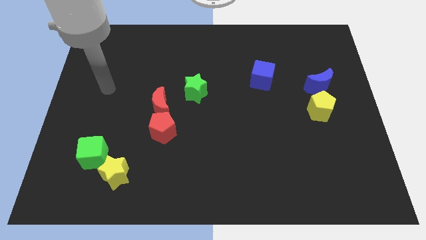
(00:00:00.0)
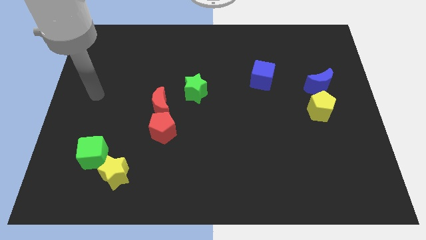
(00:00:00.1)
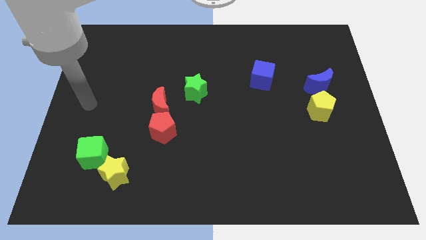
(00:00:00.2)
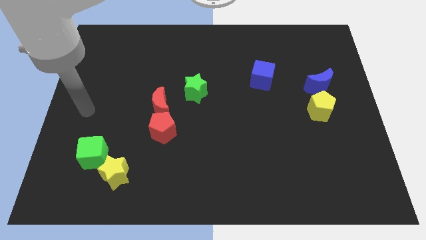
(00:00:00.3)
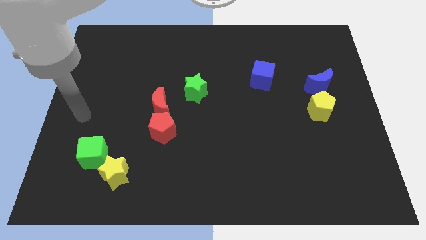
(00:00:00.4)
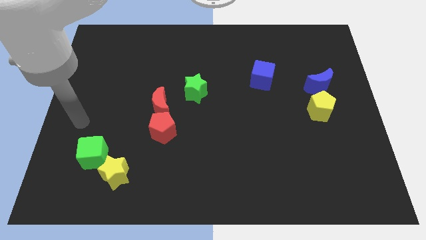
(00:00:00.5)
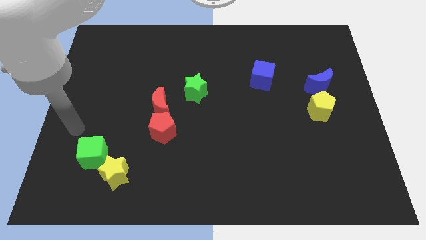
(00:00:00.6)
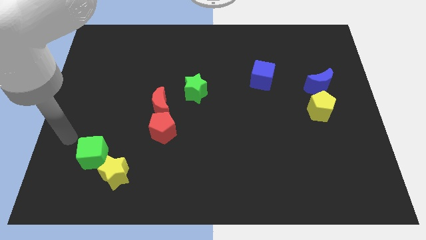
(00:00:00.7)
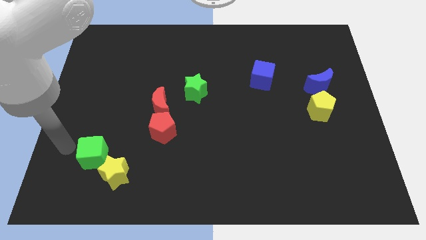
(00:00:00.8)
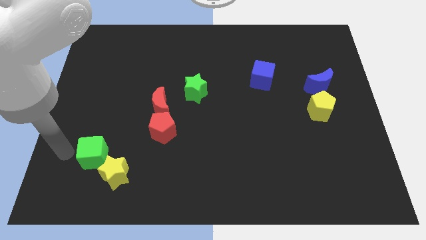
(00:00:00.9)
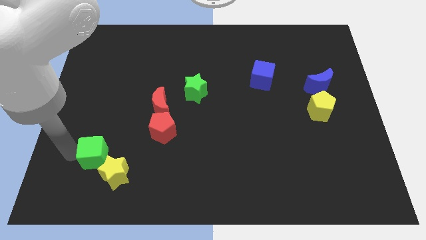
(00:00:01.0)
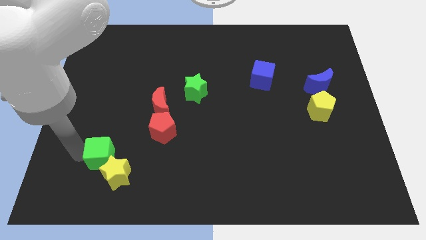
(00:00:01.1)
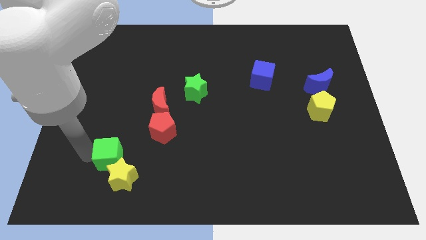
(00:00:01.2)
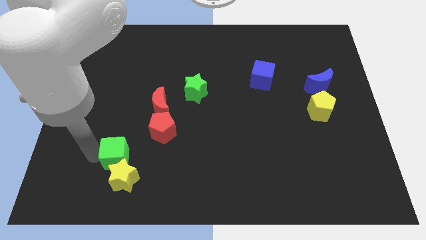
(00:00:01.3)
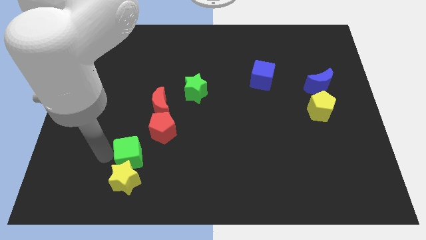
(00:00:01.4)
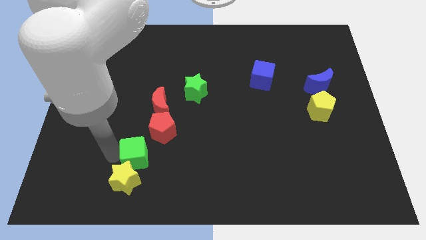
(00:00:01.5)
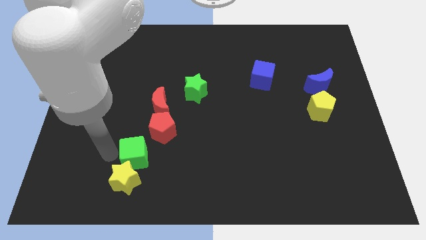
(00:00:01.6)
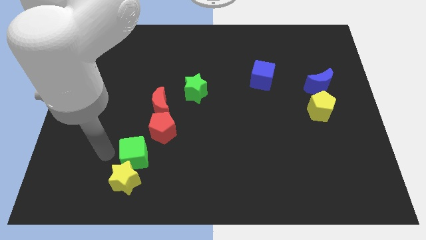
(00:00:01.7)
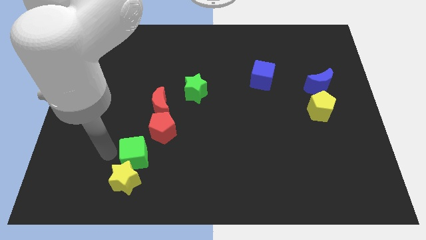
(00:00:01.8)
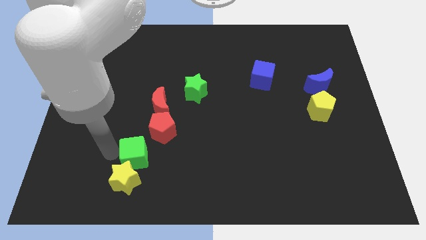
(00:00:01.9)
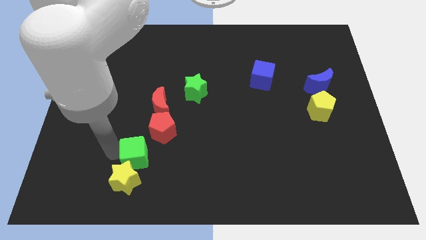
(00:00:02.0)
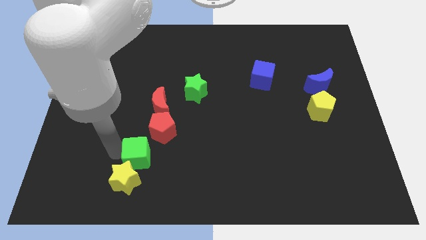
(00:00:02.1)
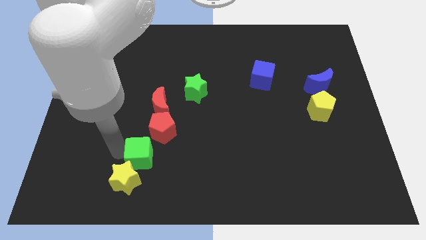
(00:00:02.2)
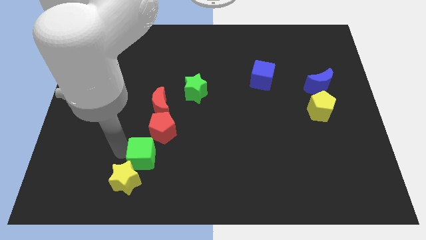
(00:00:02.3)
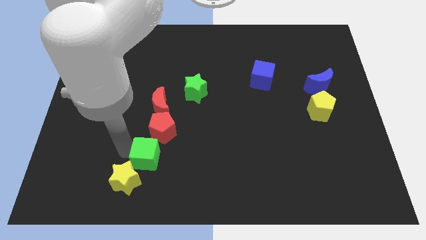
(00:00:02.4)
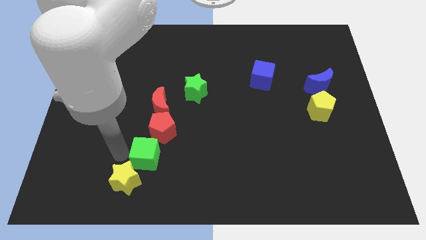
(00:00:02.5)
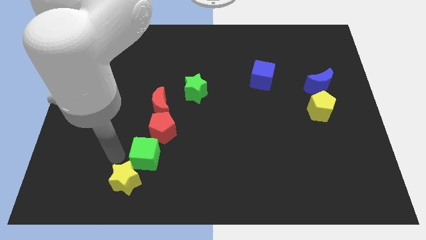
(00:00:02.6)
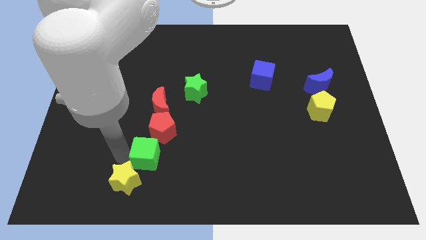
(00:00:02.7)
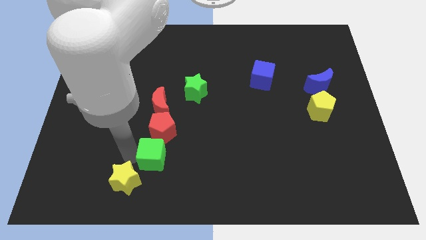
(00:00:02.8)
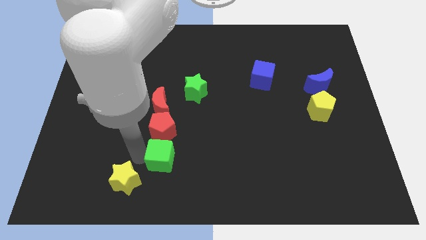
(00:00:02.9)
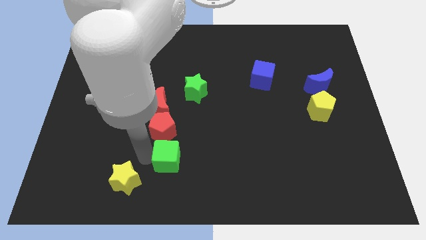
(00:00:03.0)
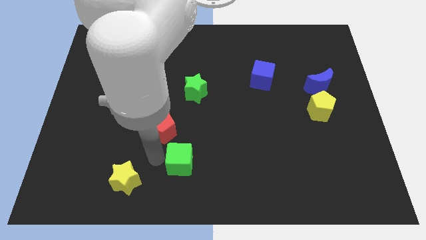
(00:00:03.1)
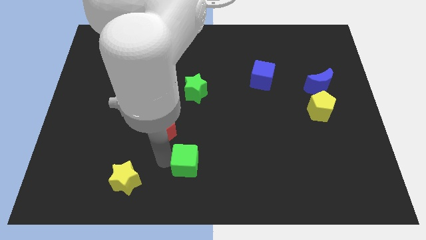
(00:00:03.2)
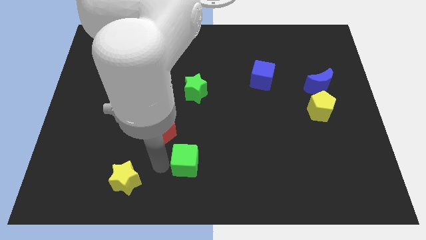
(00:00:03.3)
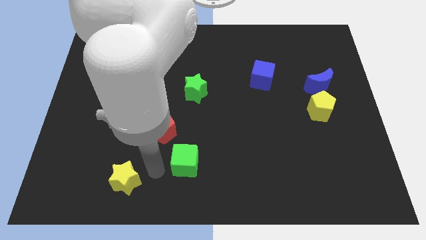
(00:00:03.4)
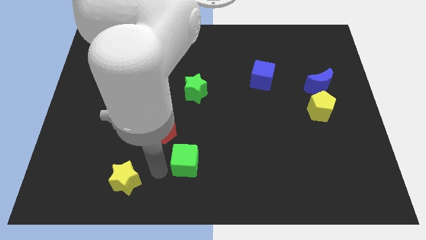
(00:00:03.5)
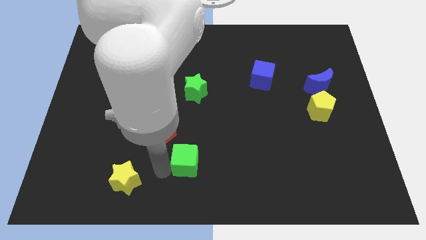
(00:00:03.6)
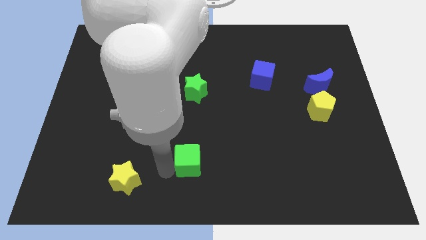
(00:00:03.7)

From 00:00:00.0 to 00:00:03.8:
slide the green cube right

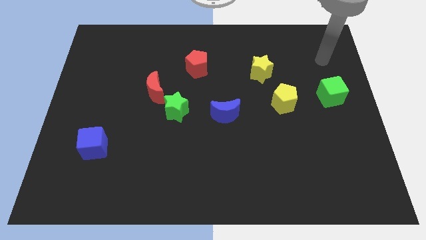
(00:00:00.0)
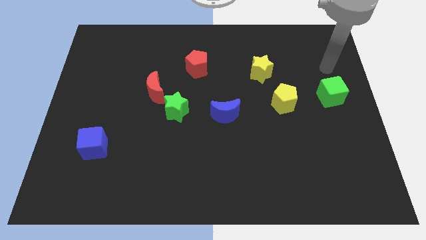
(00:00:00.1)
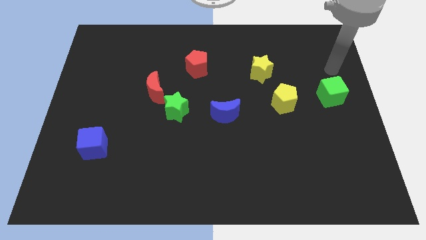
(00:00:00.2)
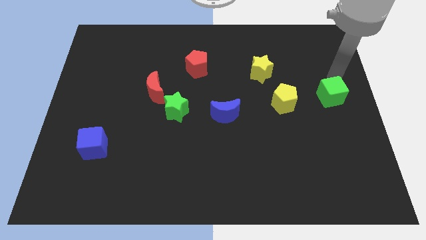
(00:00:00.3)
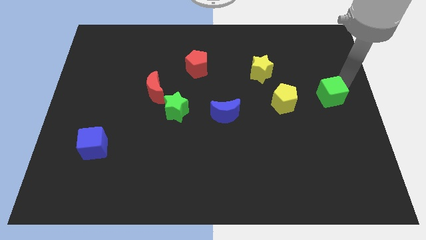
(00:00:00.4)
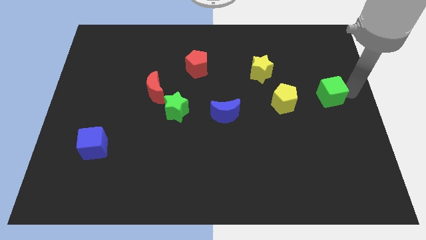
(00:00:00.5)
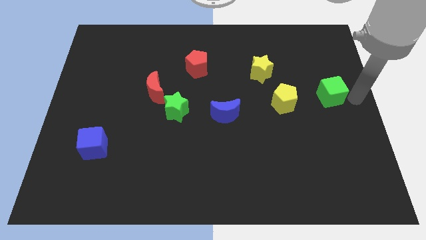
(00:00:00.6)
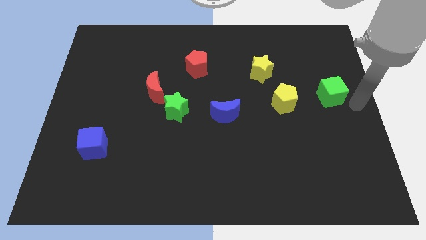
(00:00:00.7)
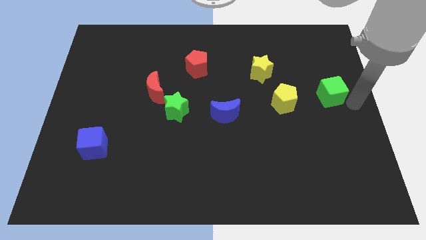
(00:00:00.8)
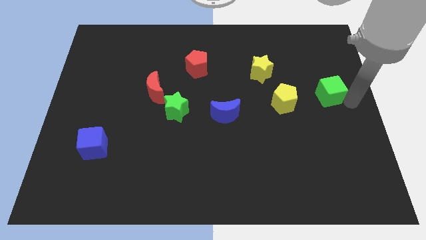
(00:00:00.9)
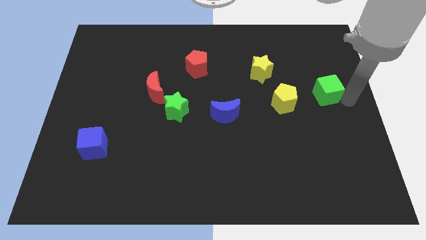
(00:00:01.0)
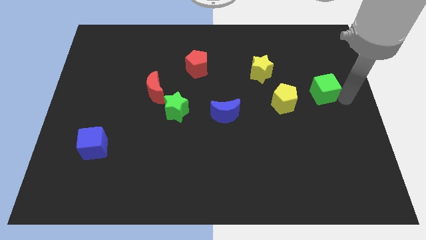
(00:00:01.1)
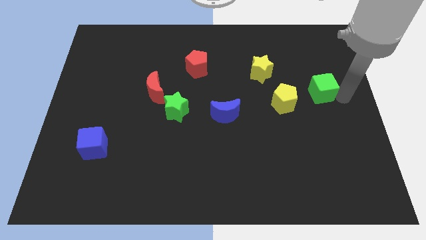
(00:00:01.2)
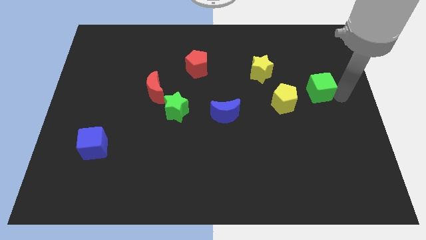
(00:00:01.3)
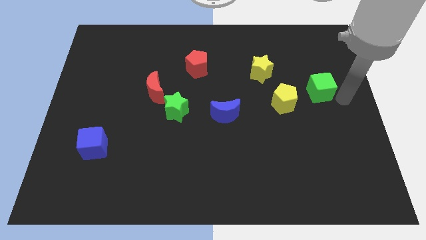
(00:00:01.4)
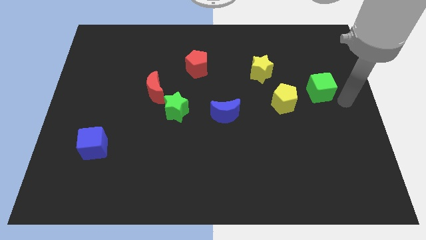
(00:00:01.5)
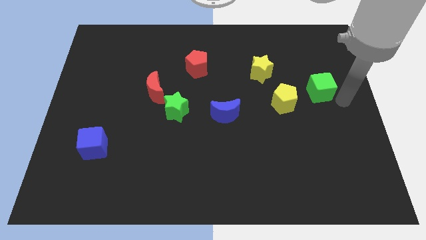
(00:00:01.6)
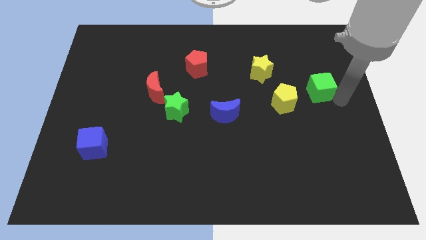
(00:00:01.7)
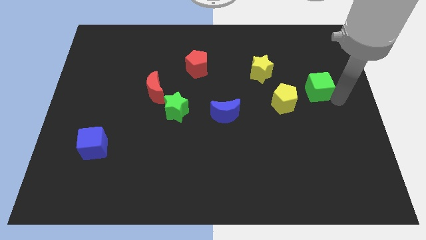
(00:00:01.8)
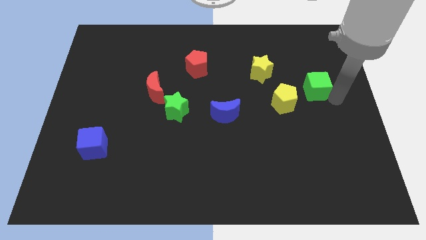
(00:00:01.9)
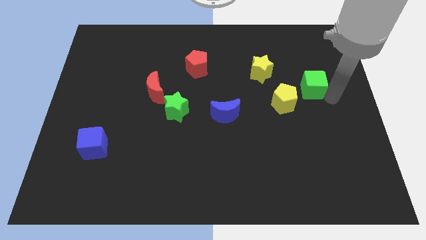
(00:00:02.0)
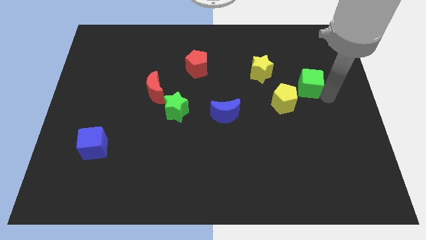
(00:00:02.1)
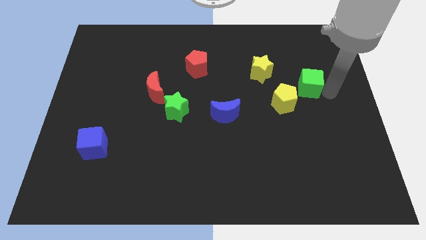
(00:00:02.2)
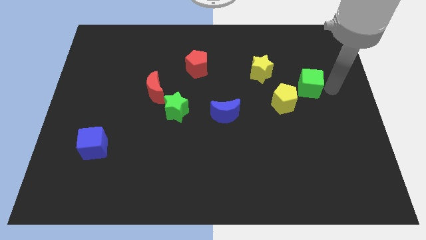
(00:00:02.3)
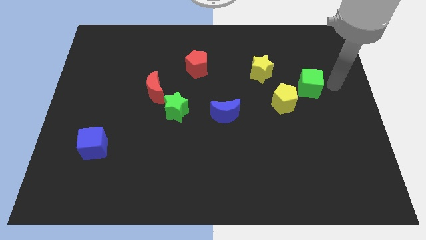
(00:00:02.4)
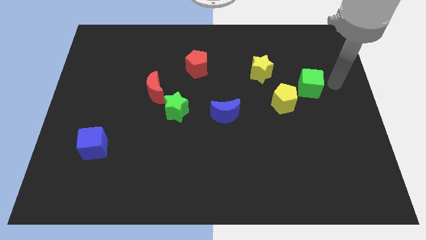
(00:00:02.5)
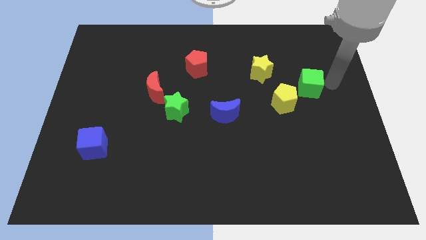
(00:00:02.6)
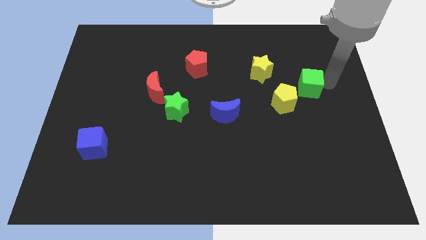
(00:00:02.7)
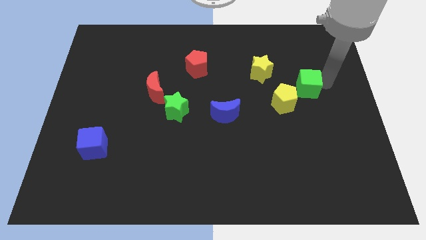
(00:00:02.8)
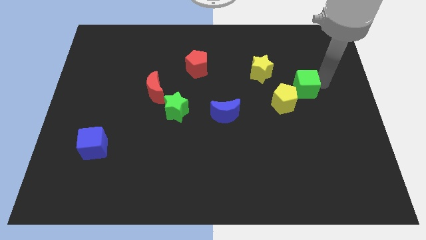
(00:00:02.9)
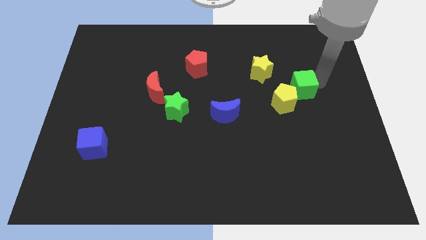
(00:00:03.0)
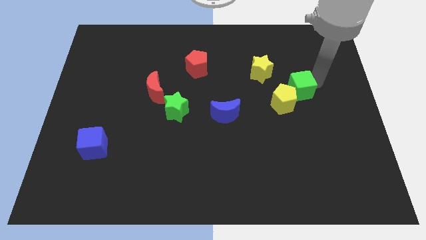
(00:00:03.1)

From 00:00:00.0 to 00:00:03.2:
push the green cube a bit to the left

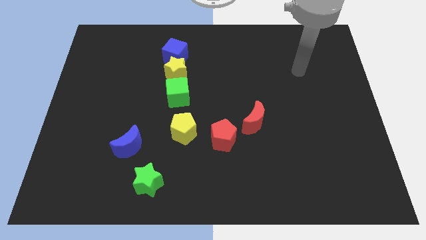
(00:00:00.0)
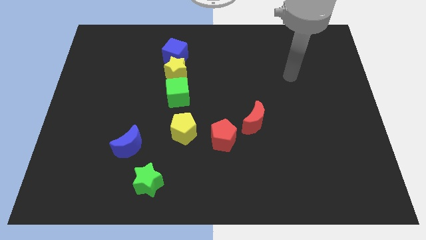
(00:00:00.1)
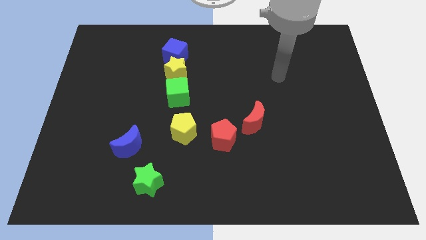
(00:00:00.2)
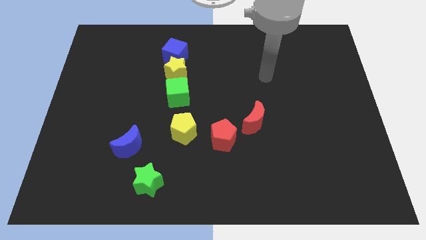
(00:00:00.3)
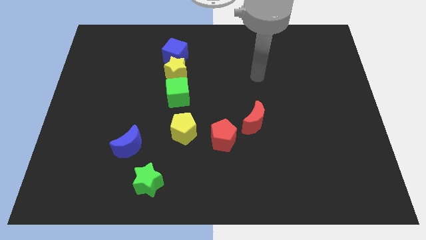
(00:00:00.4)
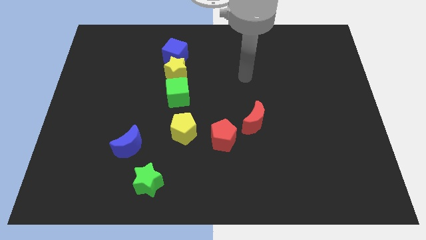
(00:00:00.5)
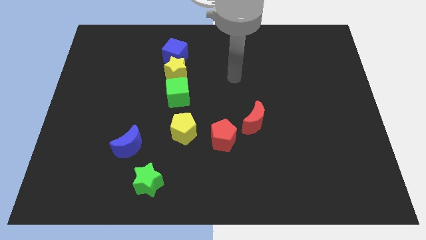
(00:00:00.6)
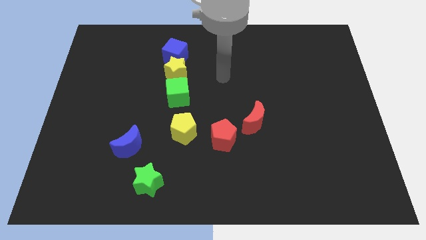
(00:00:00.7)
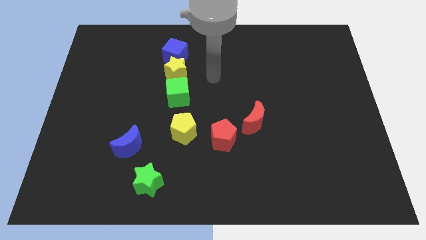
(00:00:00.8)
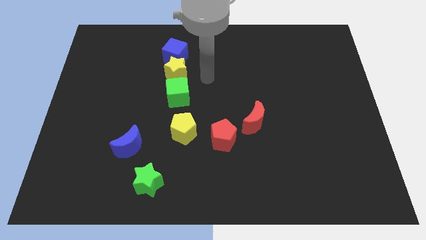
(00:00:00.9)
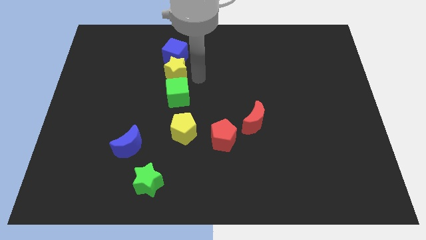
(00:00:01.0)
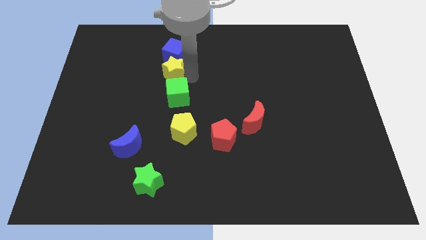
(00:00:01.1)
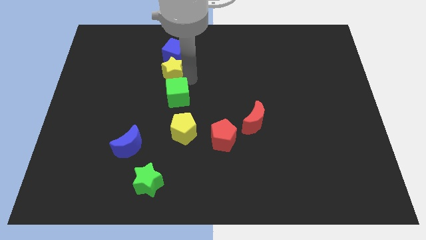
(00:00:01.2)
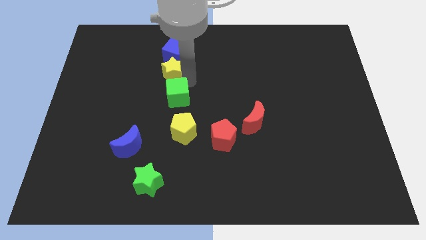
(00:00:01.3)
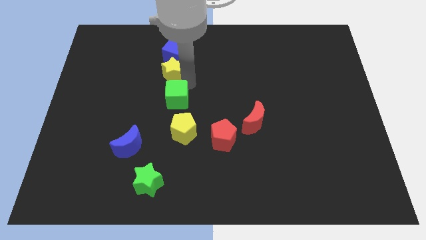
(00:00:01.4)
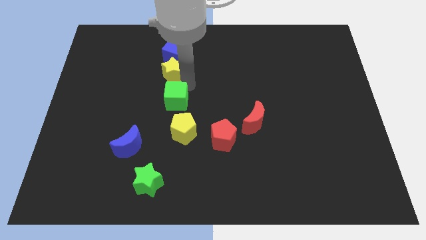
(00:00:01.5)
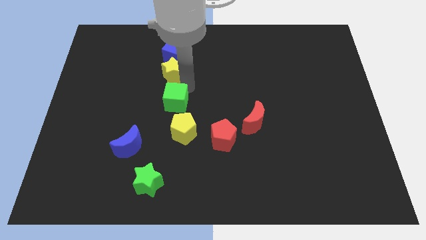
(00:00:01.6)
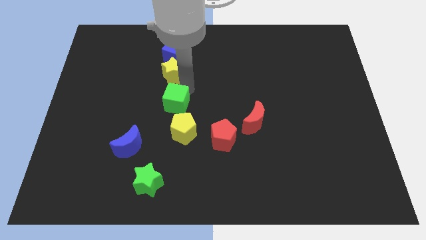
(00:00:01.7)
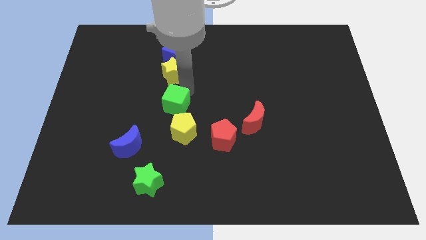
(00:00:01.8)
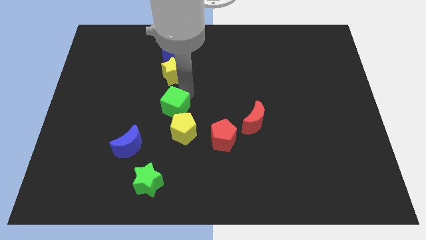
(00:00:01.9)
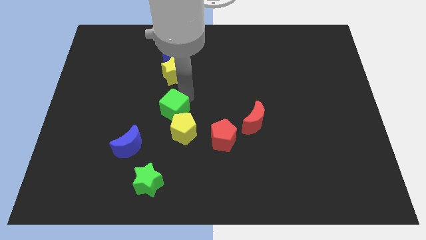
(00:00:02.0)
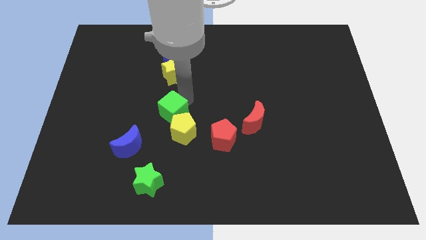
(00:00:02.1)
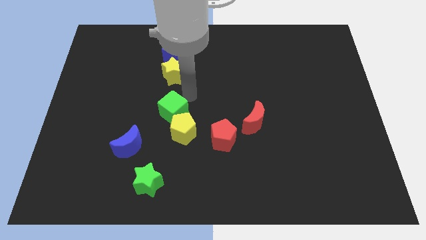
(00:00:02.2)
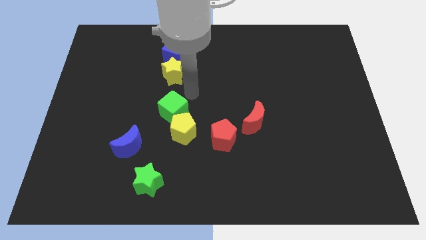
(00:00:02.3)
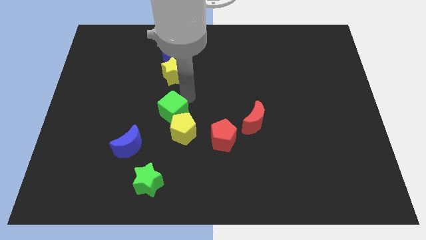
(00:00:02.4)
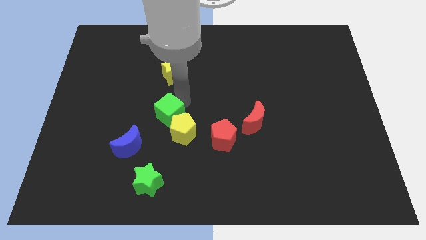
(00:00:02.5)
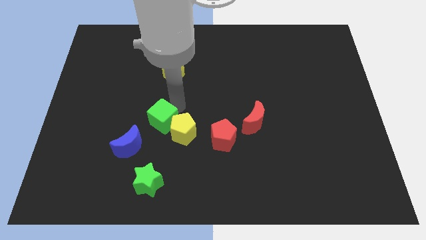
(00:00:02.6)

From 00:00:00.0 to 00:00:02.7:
move the green cube downwards a little bit
